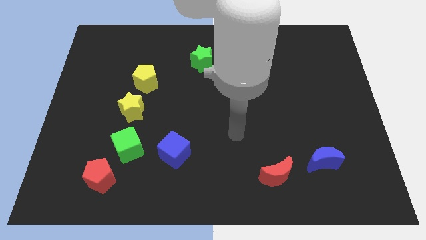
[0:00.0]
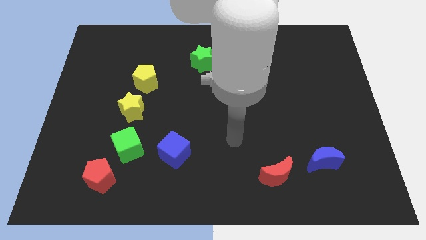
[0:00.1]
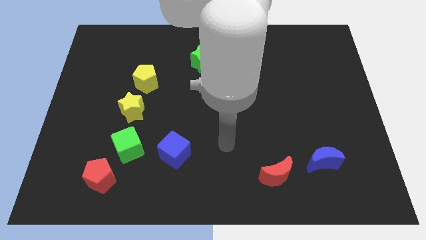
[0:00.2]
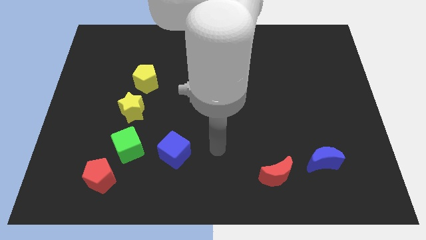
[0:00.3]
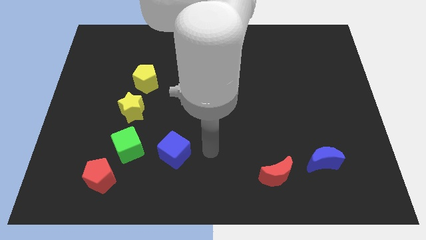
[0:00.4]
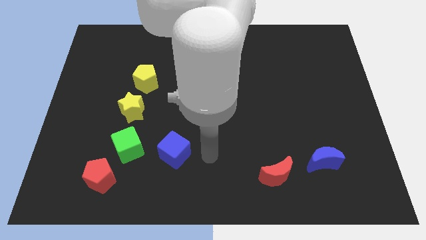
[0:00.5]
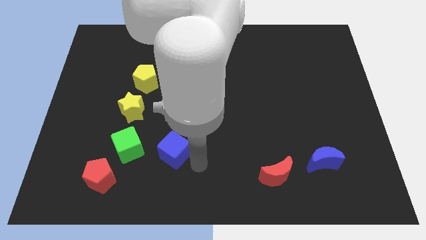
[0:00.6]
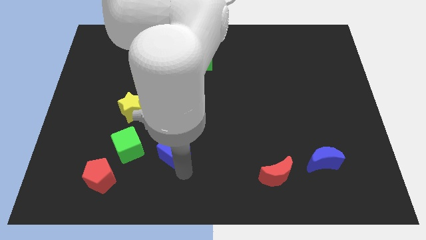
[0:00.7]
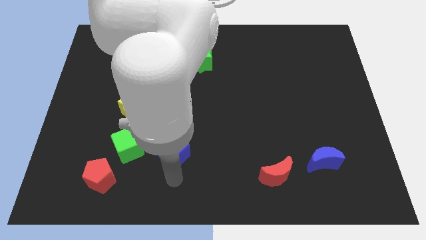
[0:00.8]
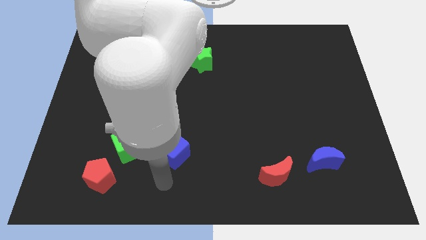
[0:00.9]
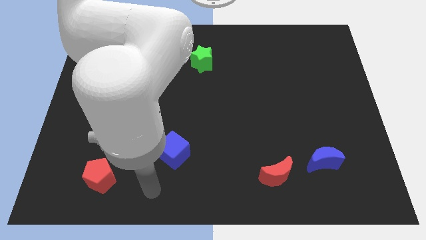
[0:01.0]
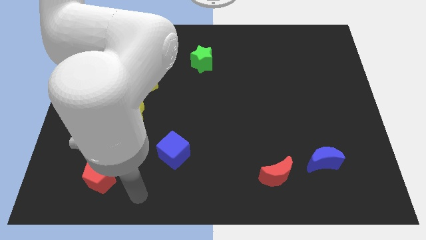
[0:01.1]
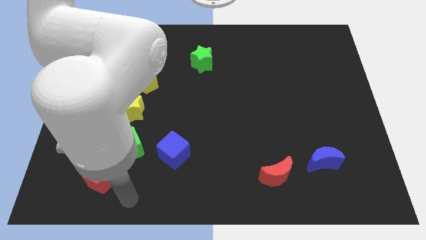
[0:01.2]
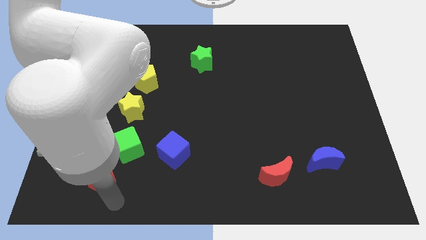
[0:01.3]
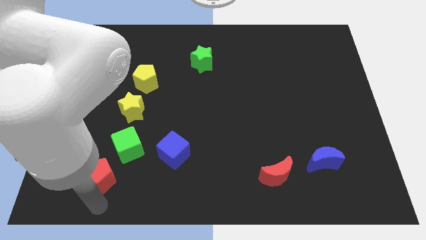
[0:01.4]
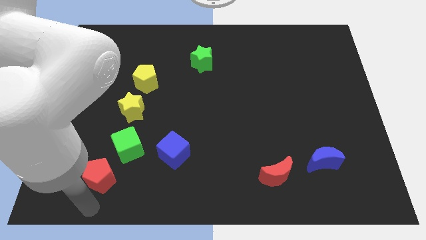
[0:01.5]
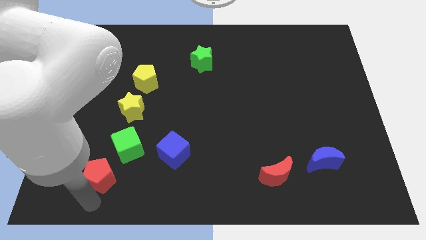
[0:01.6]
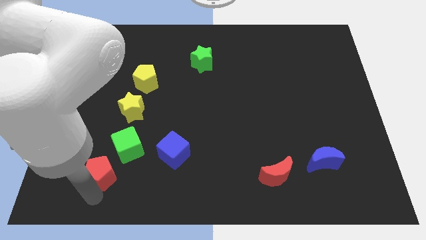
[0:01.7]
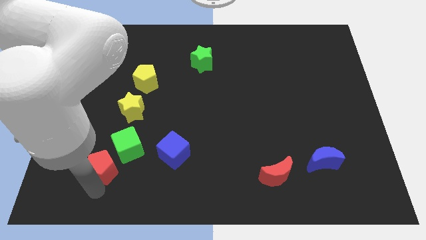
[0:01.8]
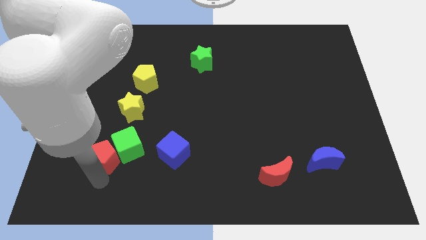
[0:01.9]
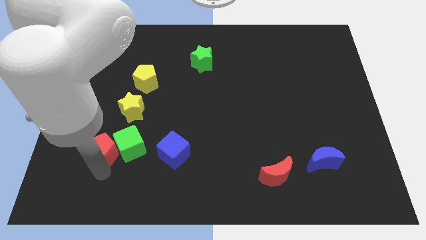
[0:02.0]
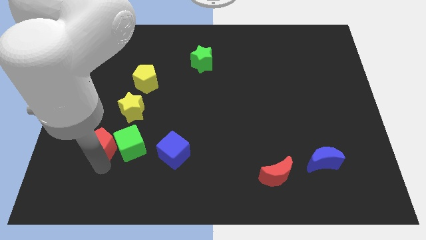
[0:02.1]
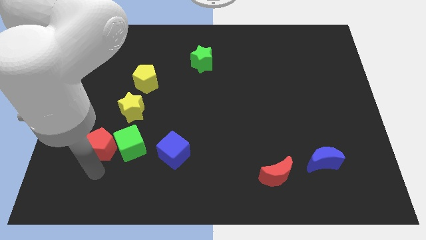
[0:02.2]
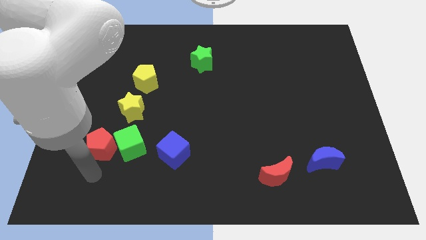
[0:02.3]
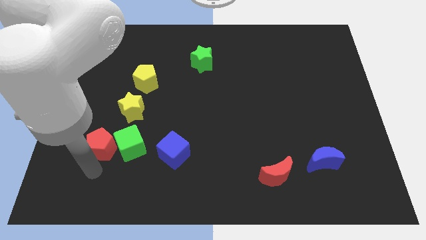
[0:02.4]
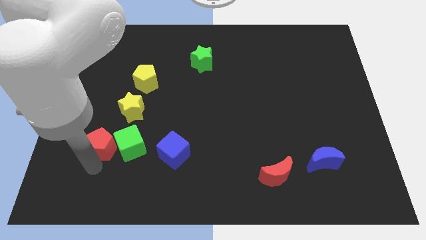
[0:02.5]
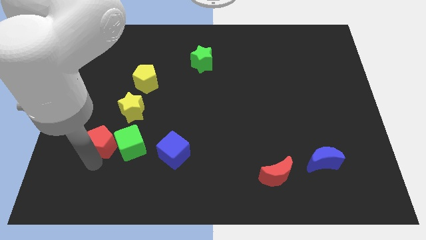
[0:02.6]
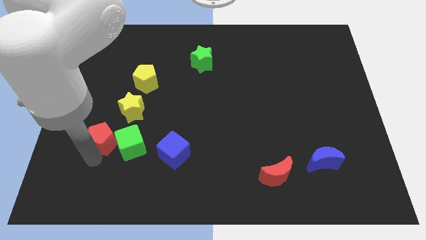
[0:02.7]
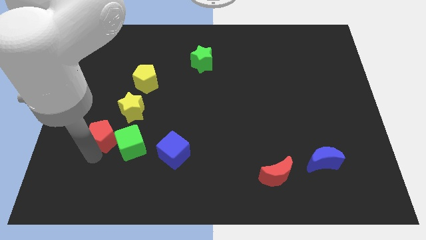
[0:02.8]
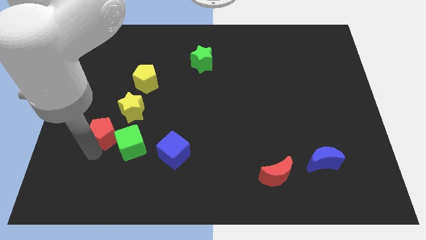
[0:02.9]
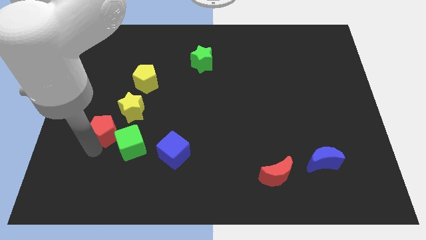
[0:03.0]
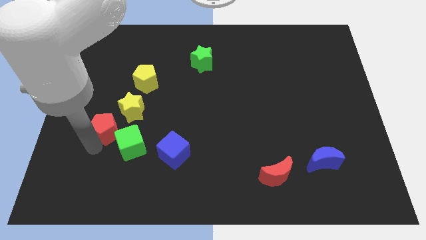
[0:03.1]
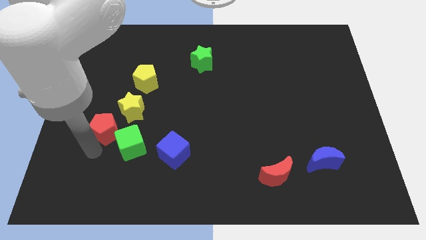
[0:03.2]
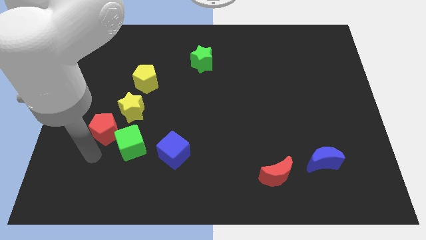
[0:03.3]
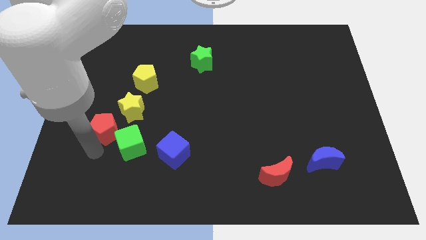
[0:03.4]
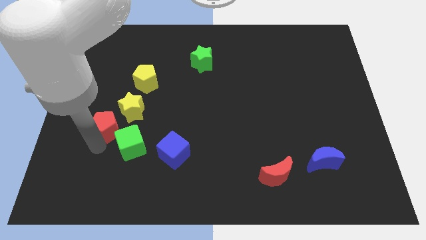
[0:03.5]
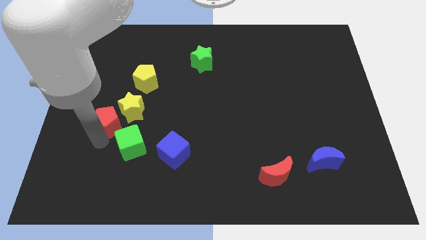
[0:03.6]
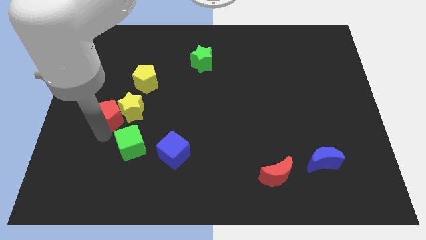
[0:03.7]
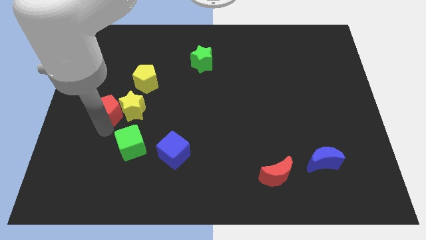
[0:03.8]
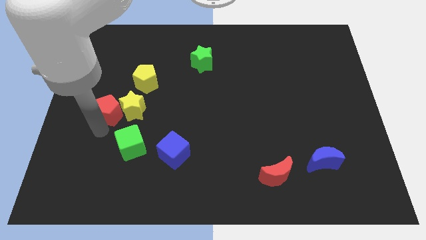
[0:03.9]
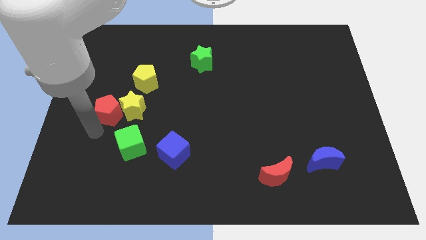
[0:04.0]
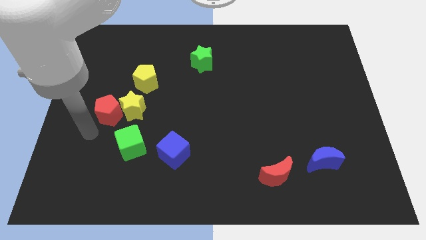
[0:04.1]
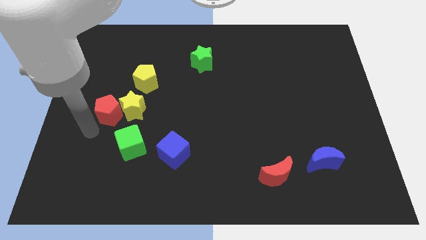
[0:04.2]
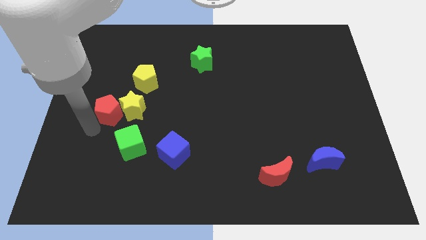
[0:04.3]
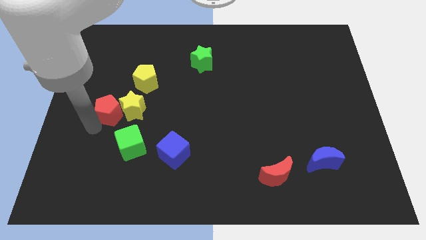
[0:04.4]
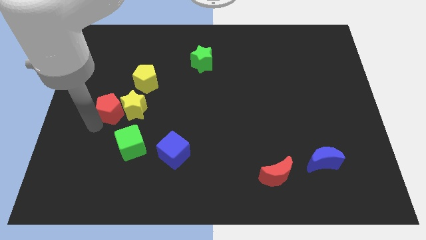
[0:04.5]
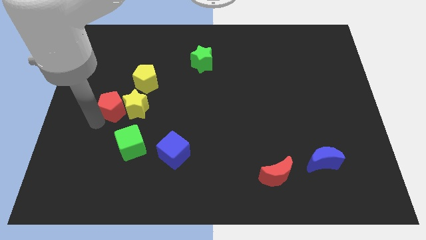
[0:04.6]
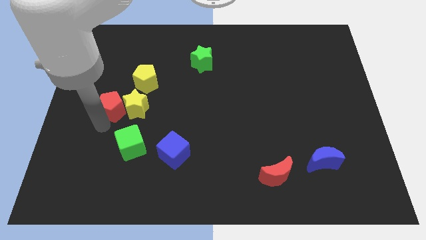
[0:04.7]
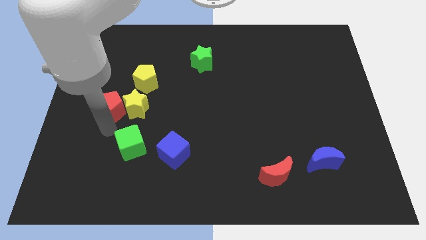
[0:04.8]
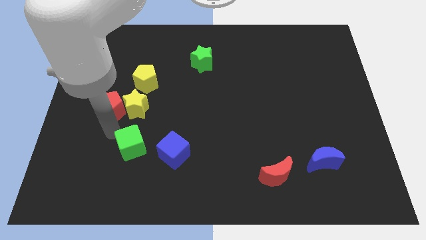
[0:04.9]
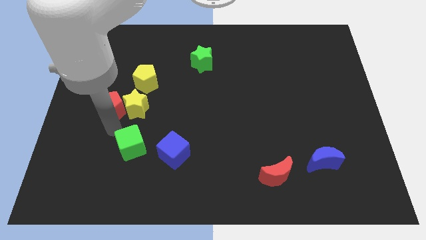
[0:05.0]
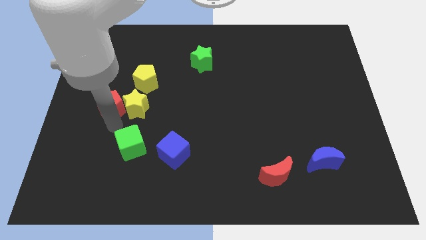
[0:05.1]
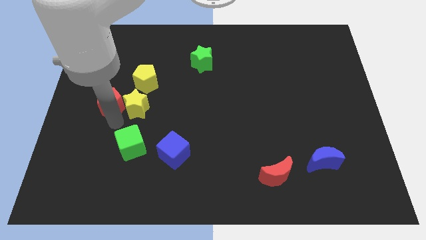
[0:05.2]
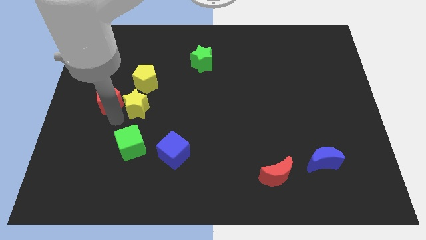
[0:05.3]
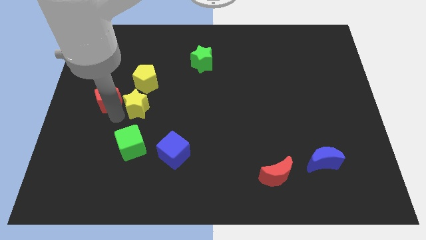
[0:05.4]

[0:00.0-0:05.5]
push the red pentagon up

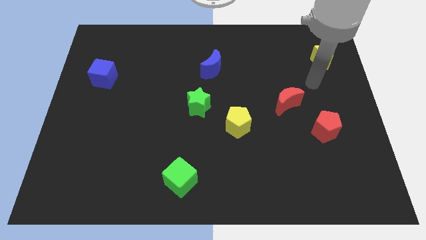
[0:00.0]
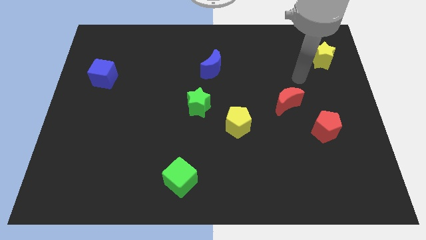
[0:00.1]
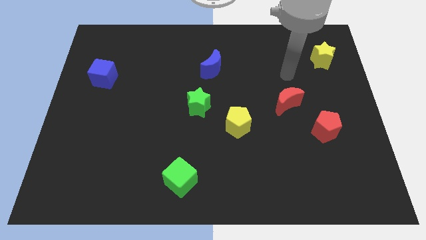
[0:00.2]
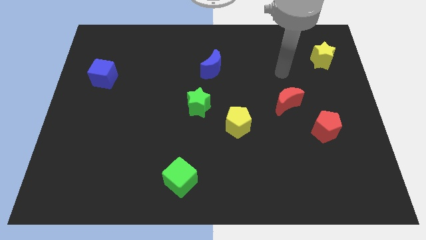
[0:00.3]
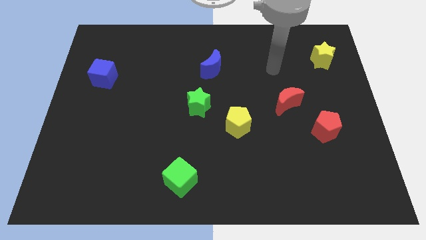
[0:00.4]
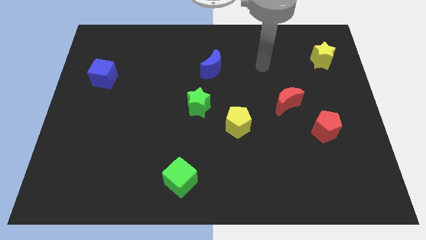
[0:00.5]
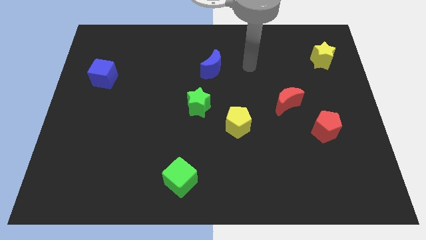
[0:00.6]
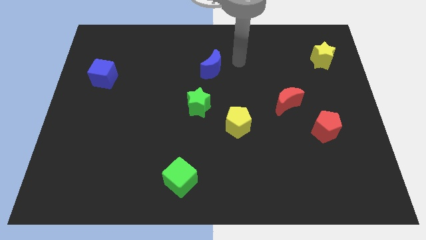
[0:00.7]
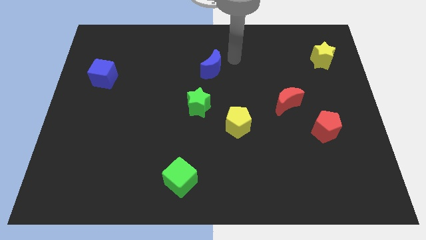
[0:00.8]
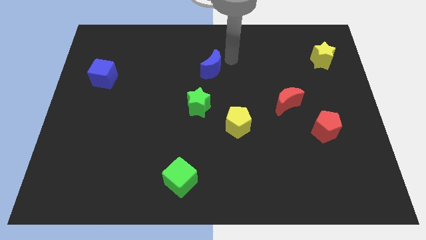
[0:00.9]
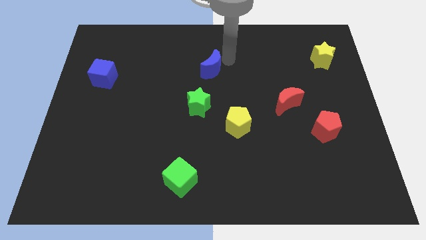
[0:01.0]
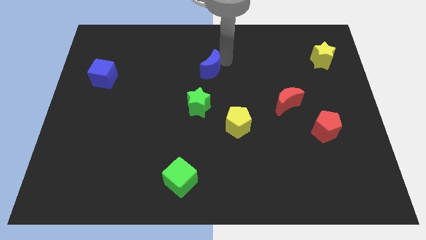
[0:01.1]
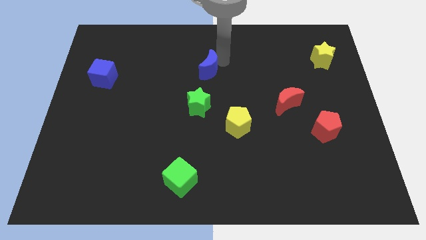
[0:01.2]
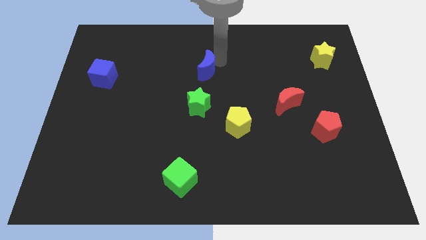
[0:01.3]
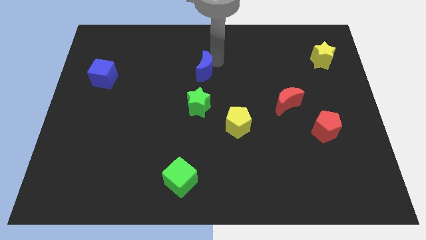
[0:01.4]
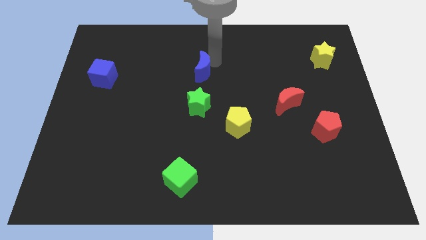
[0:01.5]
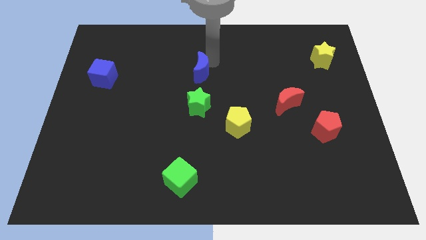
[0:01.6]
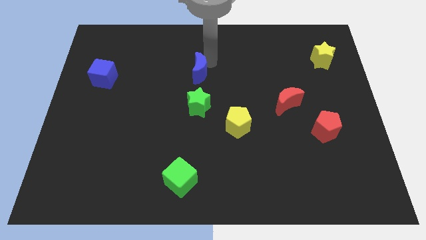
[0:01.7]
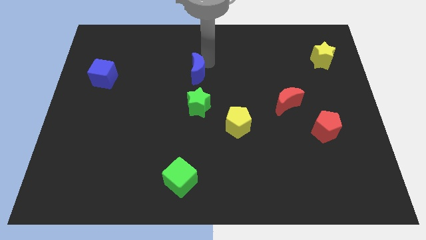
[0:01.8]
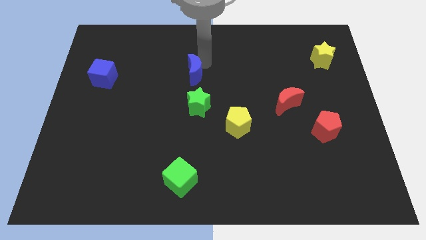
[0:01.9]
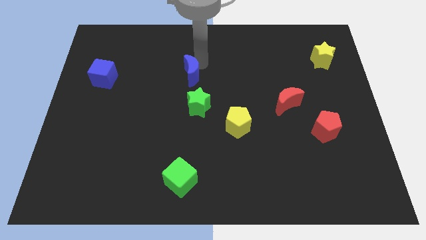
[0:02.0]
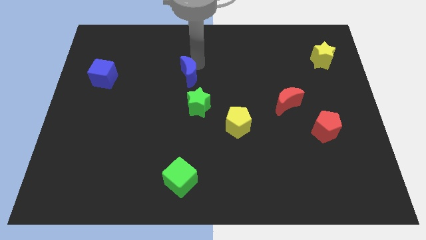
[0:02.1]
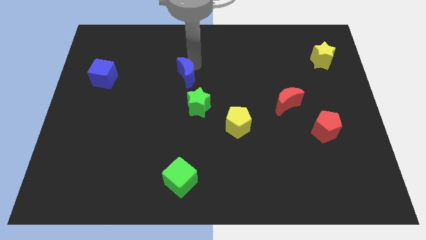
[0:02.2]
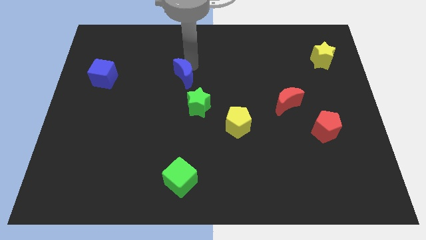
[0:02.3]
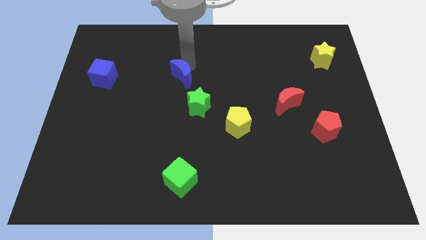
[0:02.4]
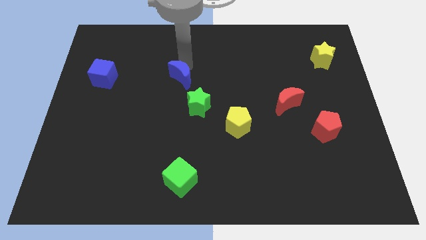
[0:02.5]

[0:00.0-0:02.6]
move the blue moon downwards and left diagonally a little
